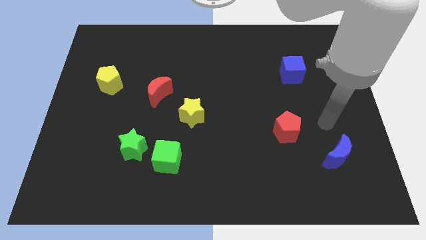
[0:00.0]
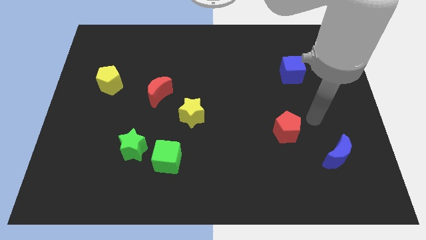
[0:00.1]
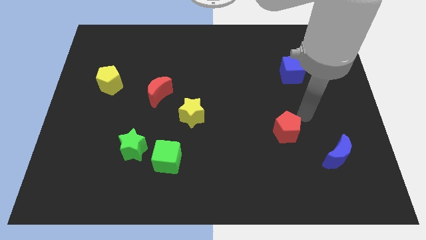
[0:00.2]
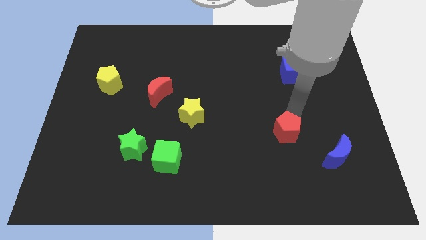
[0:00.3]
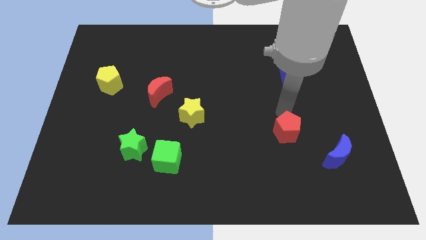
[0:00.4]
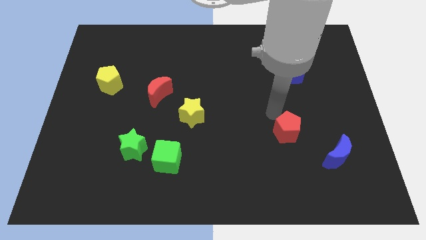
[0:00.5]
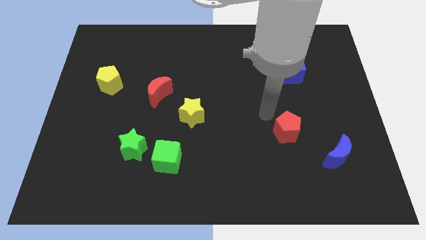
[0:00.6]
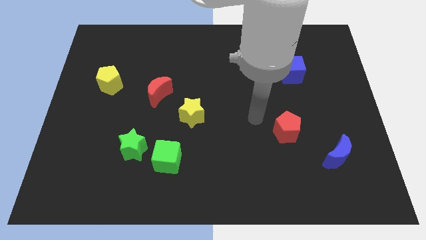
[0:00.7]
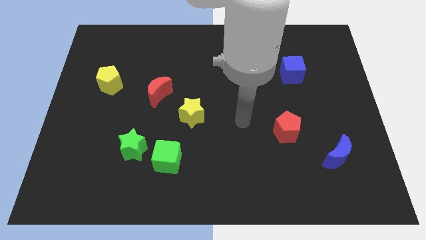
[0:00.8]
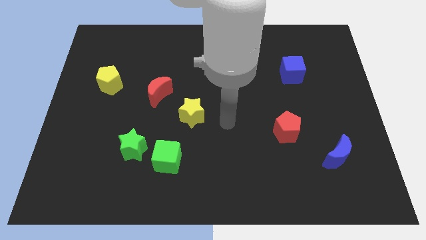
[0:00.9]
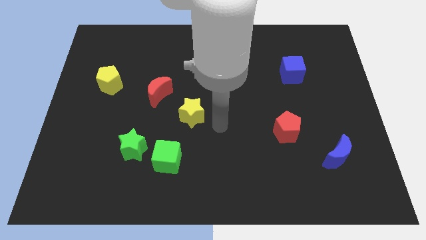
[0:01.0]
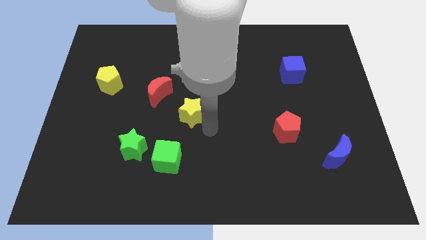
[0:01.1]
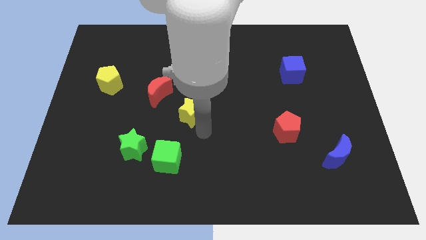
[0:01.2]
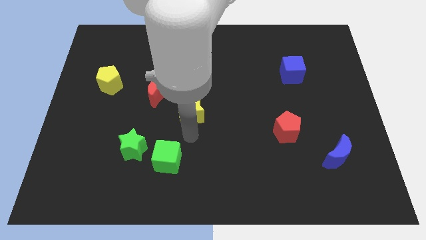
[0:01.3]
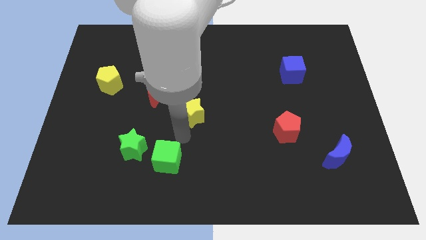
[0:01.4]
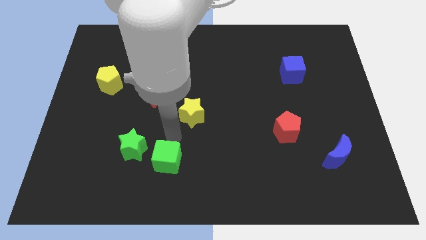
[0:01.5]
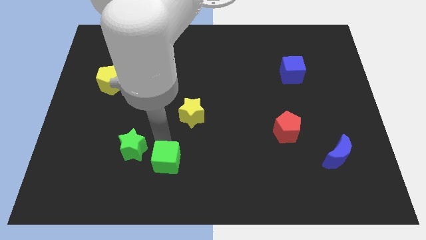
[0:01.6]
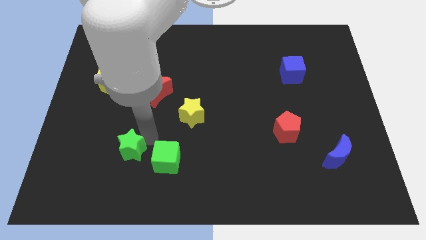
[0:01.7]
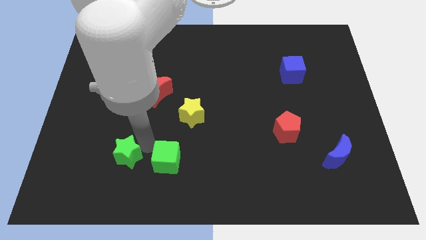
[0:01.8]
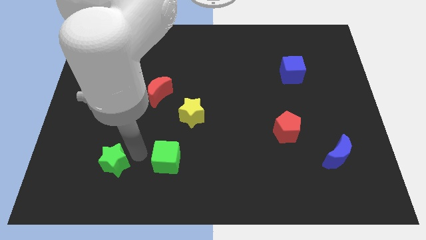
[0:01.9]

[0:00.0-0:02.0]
separate the green cube from the green star

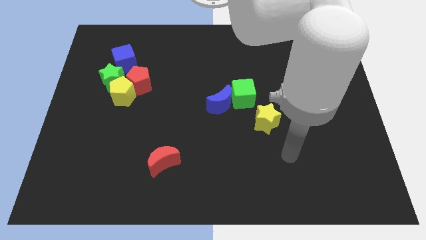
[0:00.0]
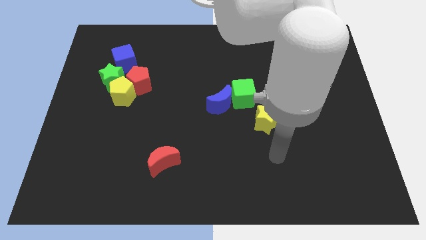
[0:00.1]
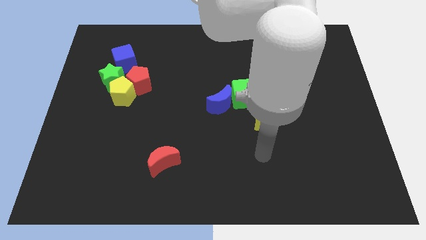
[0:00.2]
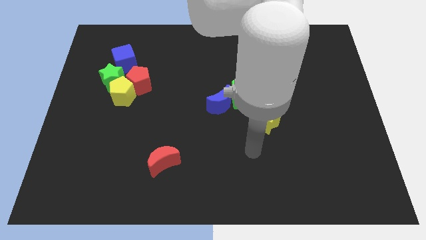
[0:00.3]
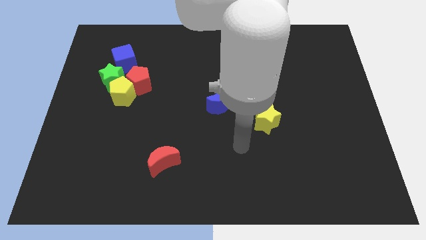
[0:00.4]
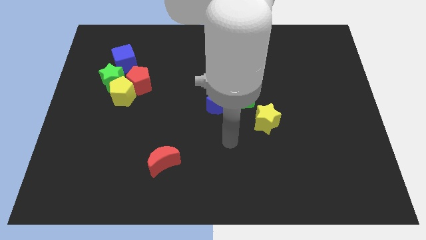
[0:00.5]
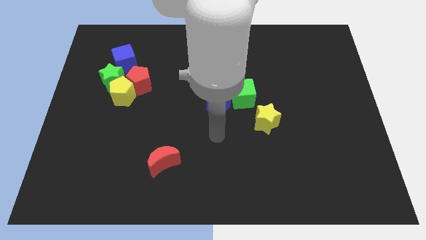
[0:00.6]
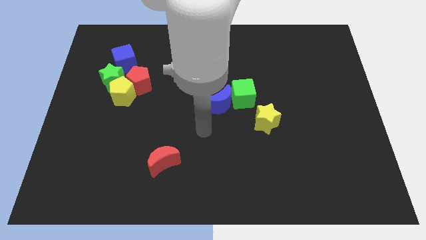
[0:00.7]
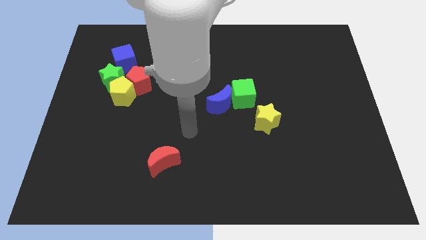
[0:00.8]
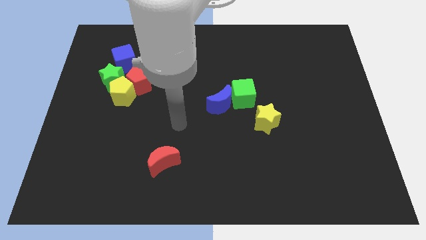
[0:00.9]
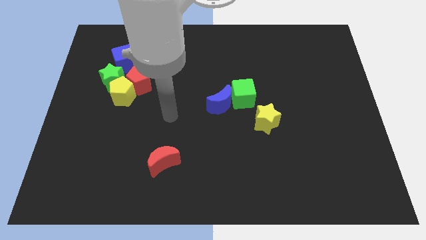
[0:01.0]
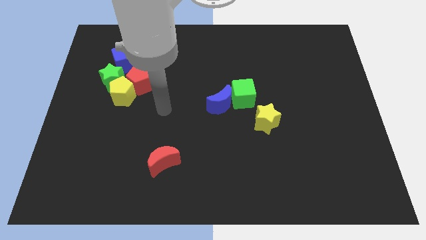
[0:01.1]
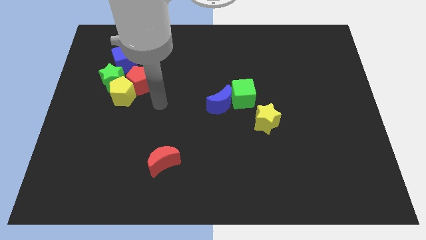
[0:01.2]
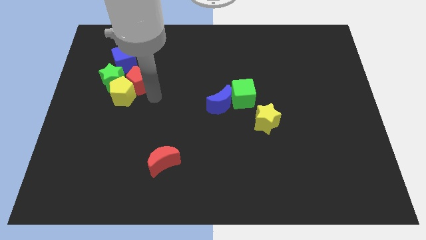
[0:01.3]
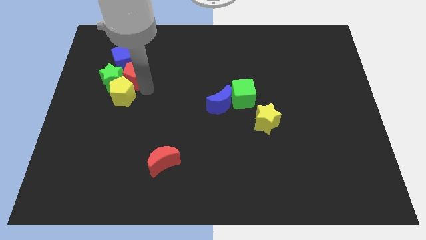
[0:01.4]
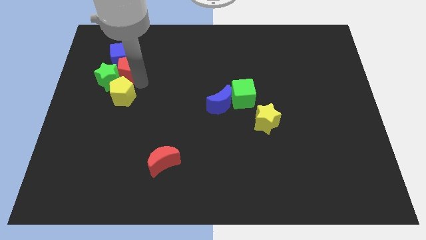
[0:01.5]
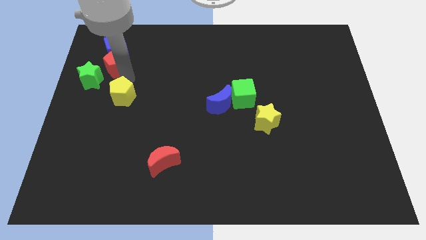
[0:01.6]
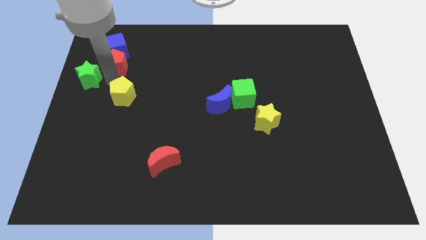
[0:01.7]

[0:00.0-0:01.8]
move the yellow pentagon away from the red pentagon and green star

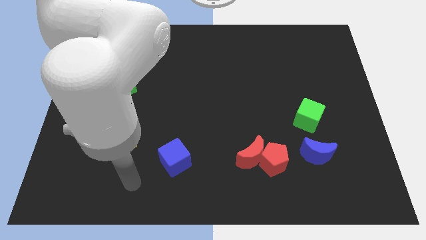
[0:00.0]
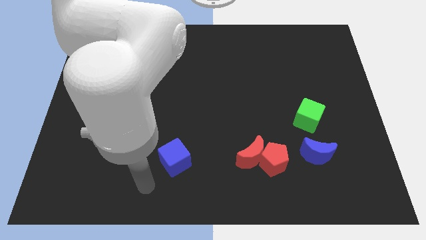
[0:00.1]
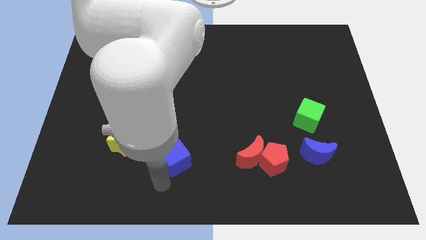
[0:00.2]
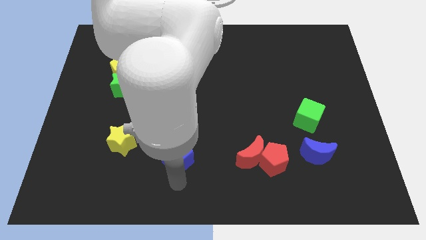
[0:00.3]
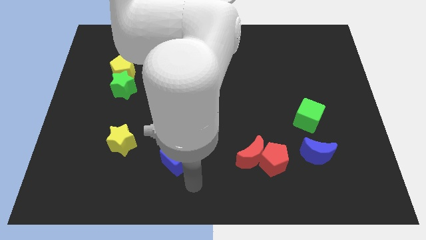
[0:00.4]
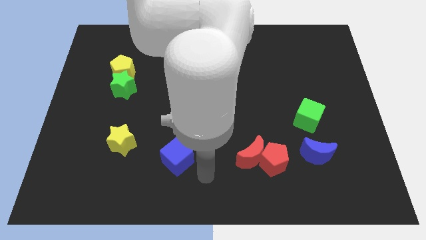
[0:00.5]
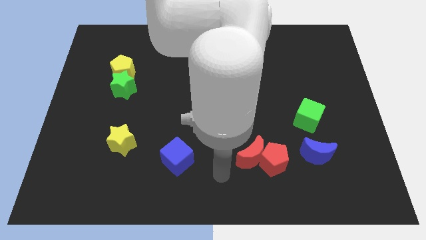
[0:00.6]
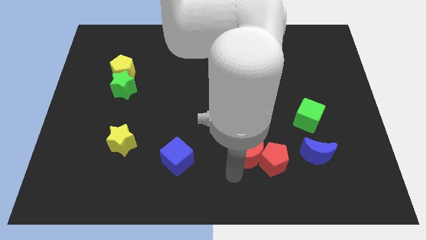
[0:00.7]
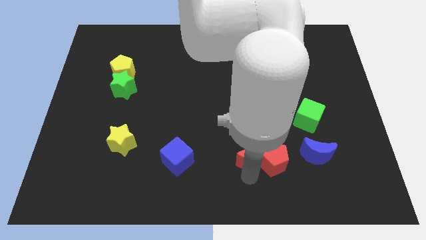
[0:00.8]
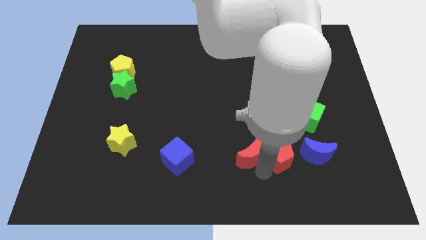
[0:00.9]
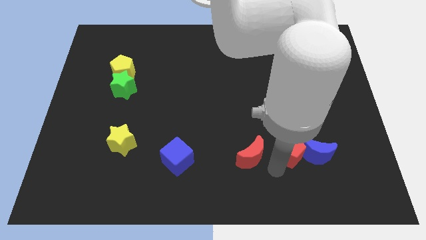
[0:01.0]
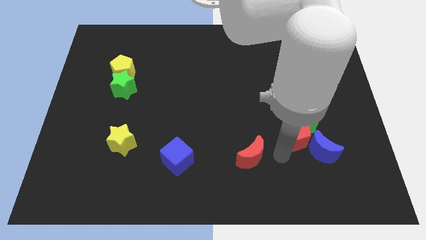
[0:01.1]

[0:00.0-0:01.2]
separate the red moon from the red pentagon

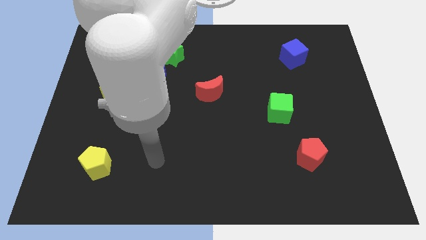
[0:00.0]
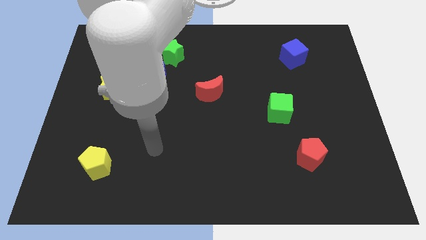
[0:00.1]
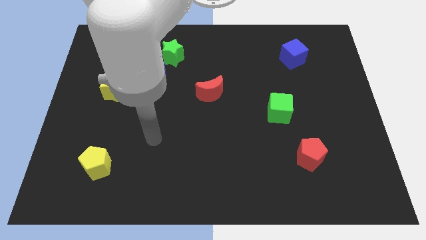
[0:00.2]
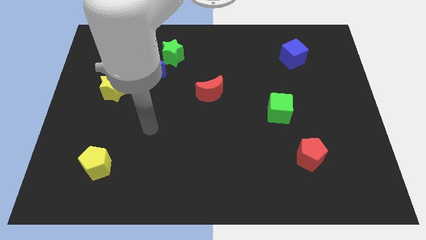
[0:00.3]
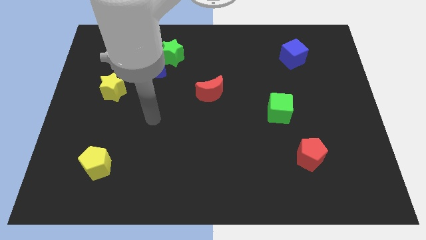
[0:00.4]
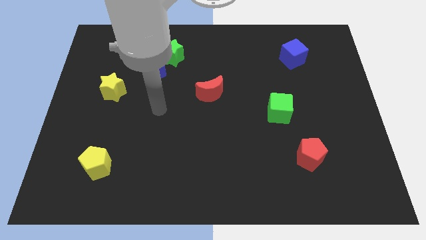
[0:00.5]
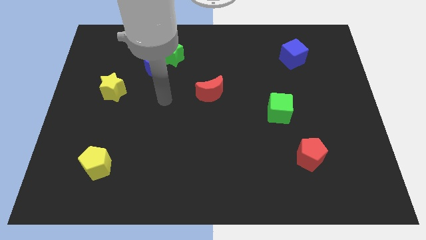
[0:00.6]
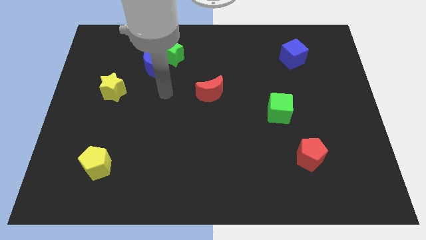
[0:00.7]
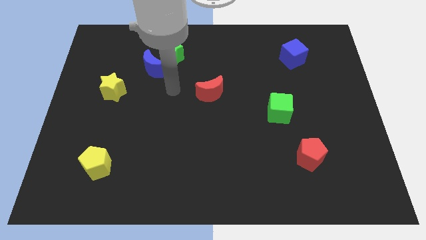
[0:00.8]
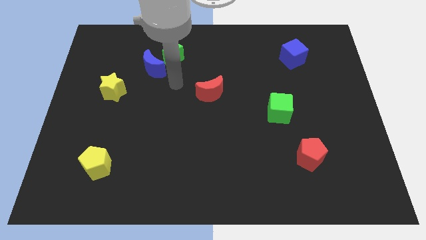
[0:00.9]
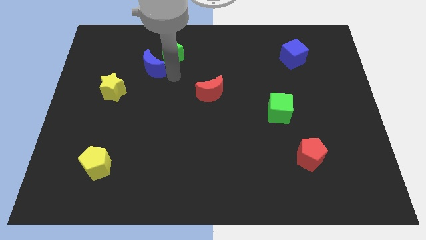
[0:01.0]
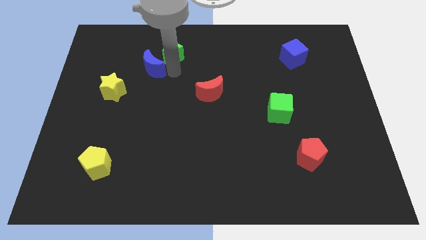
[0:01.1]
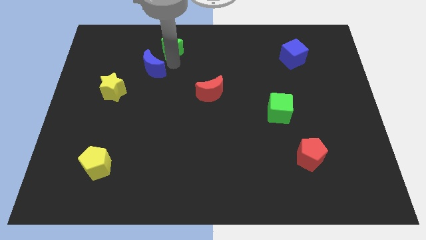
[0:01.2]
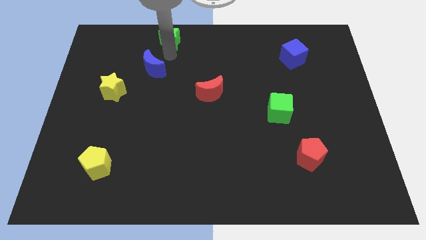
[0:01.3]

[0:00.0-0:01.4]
move the blue moon away from the green star

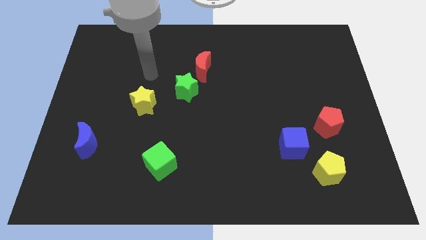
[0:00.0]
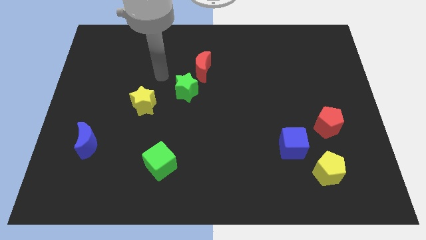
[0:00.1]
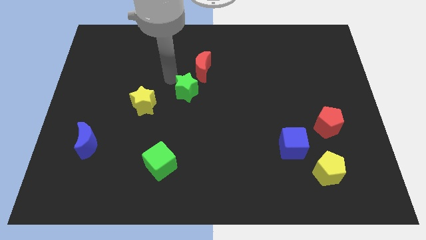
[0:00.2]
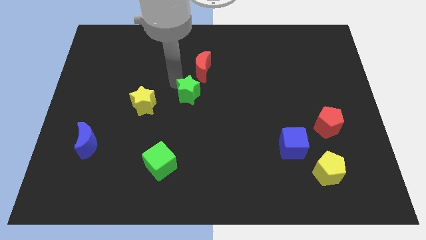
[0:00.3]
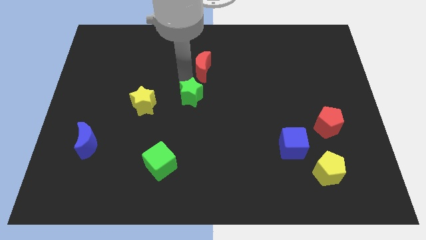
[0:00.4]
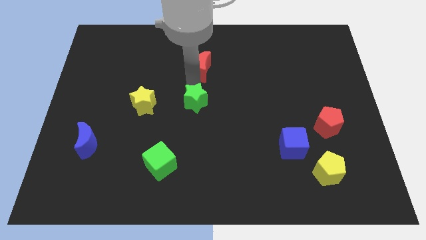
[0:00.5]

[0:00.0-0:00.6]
move the red moon away from the green star

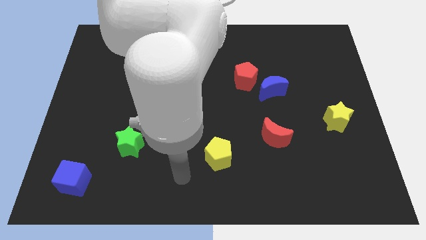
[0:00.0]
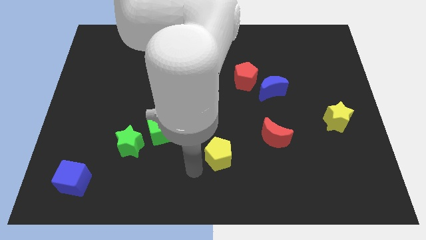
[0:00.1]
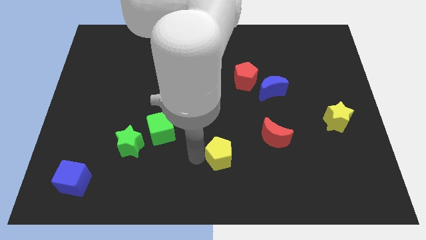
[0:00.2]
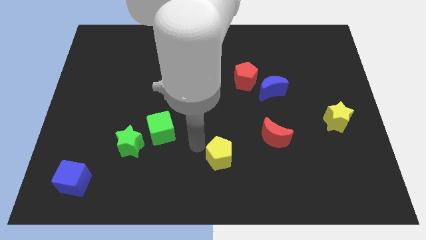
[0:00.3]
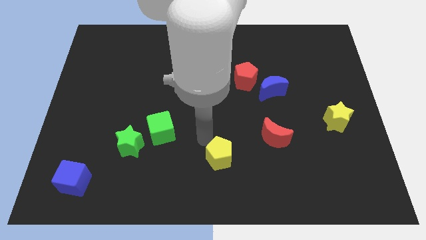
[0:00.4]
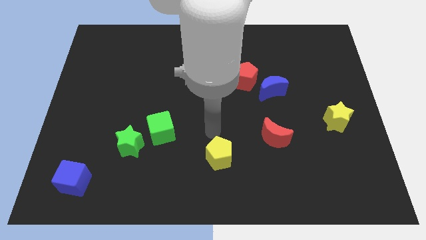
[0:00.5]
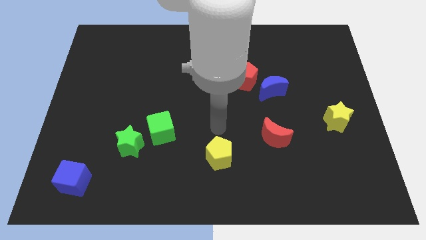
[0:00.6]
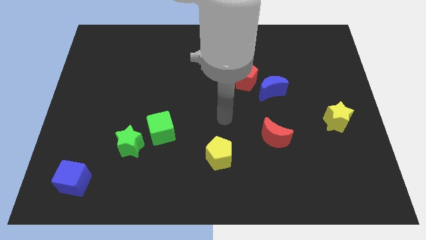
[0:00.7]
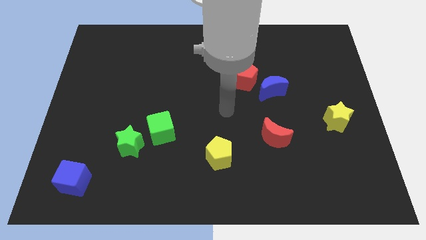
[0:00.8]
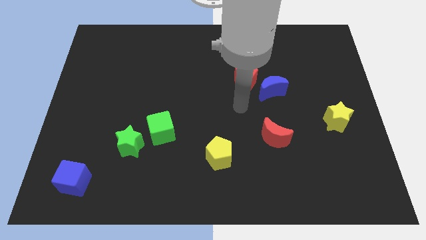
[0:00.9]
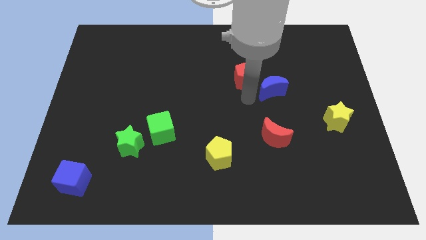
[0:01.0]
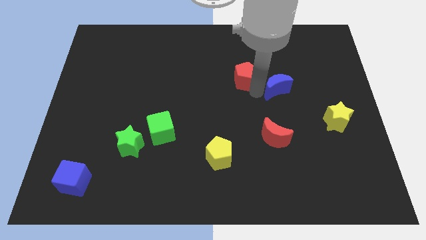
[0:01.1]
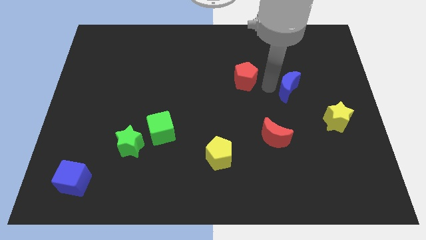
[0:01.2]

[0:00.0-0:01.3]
separate the red pentagon from the blue moon

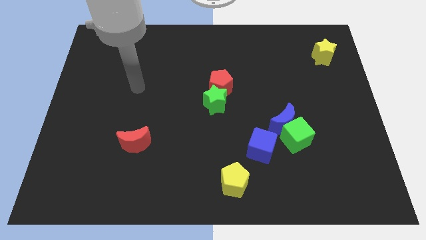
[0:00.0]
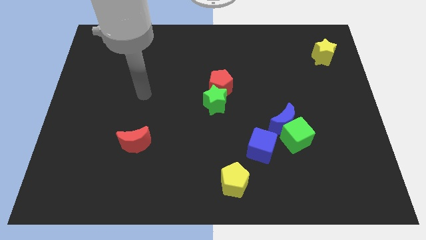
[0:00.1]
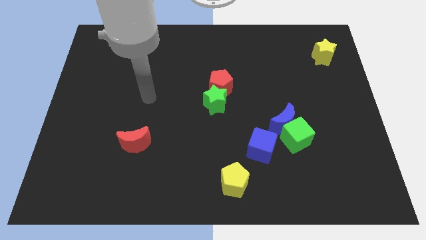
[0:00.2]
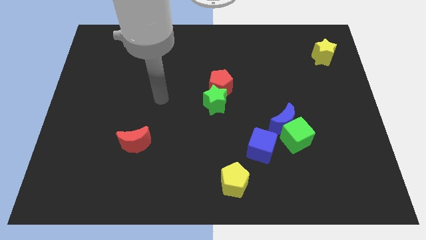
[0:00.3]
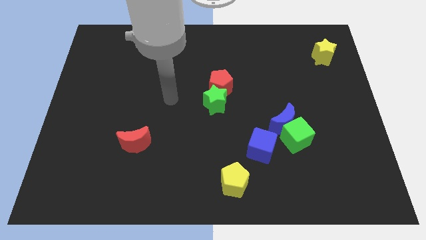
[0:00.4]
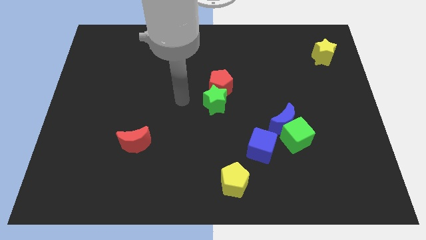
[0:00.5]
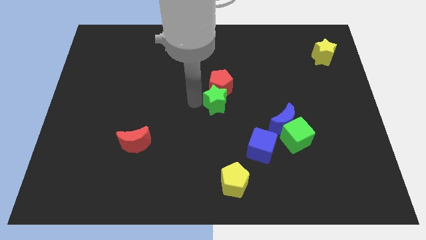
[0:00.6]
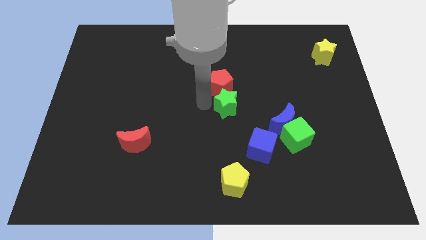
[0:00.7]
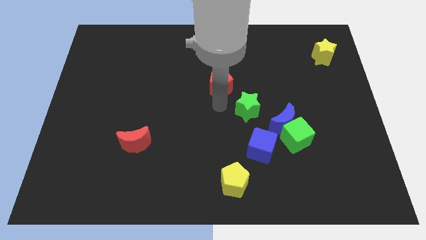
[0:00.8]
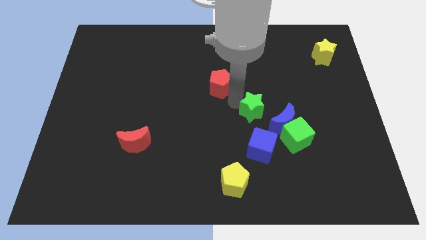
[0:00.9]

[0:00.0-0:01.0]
move the red pentagon away from the green star
